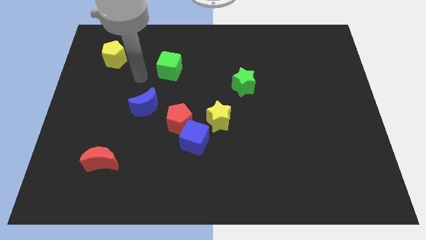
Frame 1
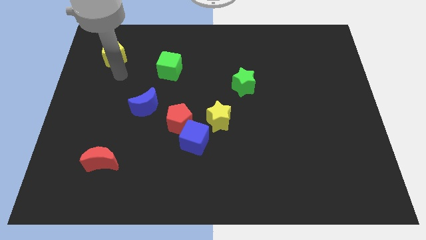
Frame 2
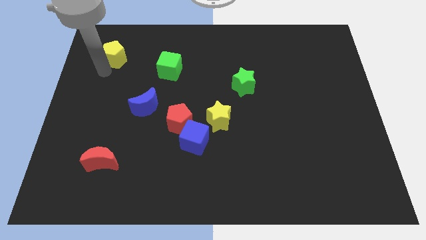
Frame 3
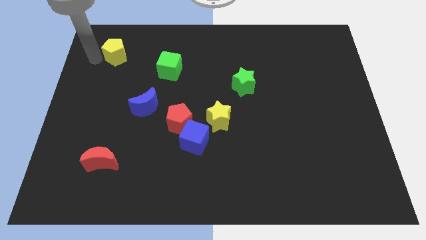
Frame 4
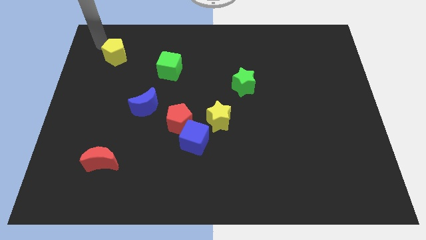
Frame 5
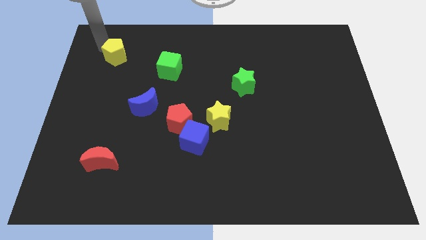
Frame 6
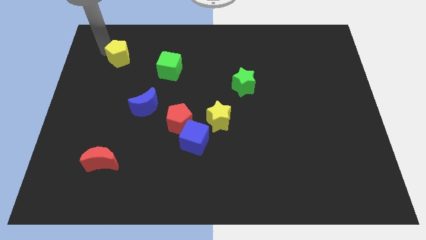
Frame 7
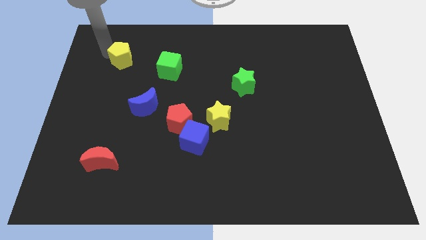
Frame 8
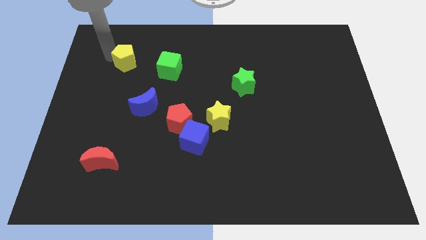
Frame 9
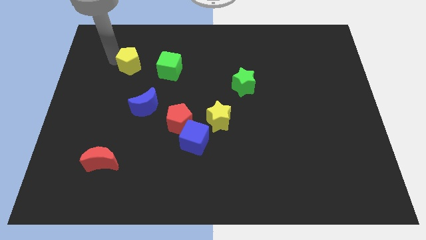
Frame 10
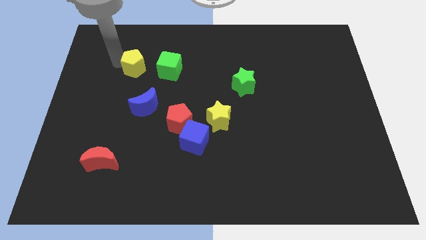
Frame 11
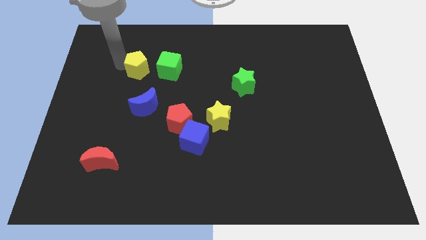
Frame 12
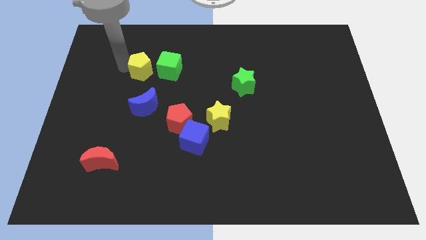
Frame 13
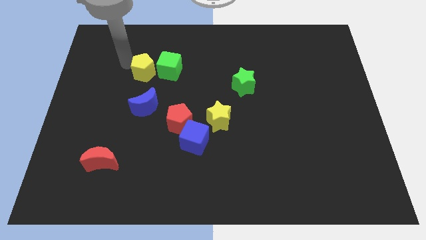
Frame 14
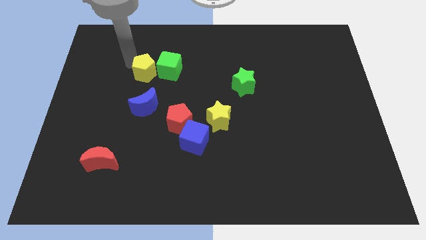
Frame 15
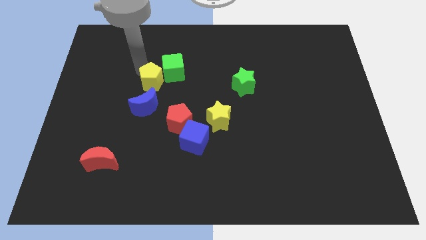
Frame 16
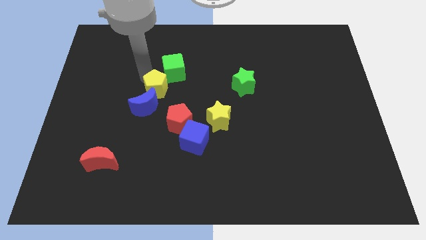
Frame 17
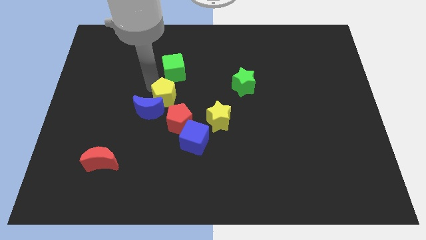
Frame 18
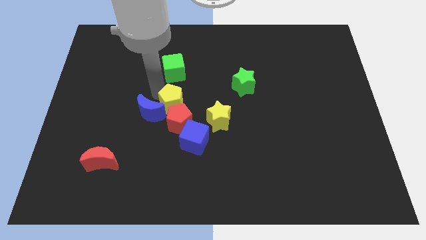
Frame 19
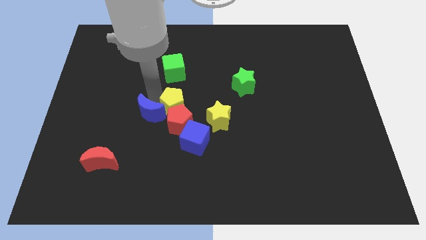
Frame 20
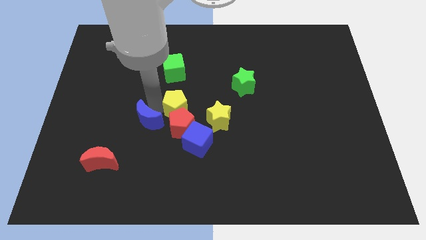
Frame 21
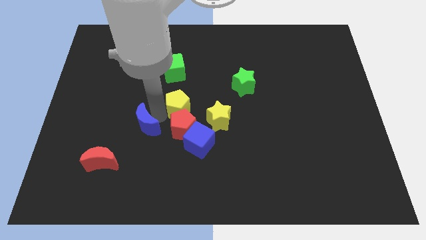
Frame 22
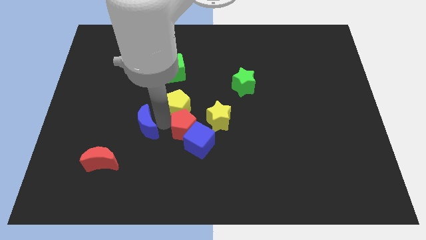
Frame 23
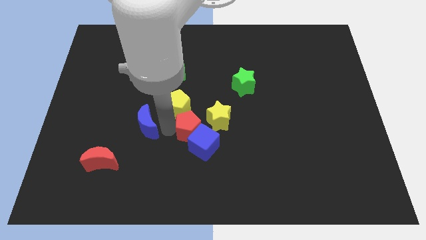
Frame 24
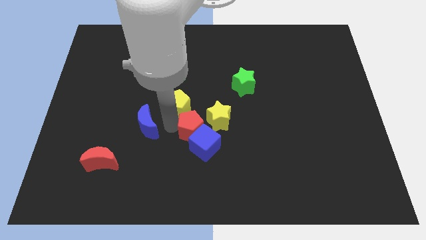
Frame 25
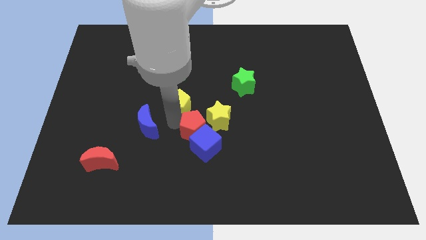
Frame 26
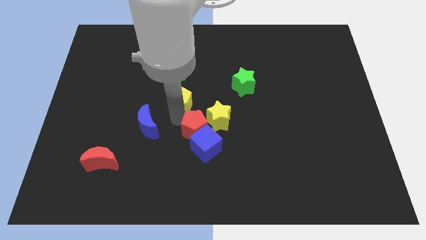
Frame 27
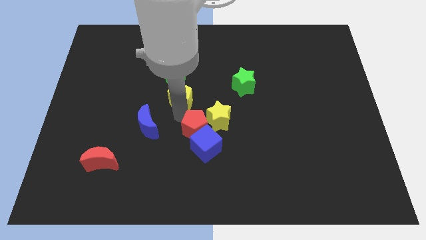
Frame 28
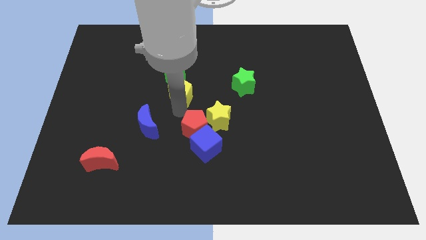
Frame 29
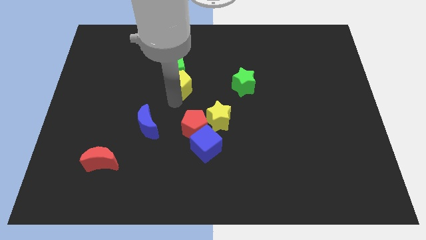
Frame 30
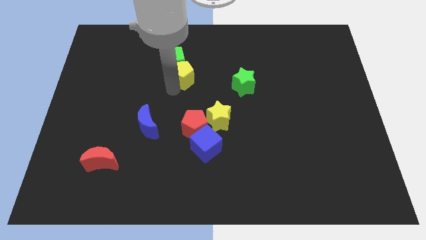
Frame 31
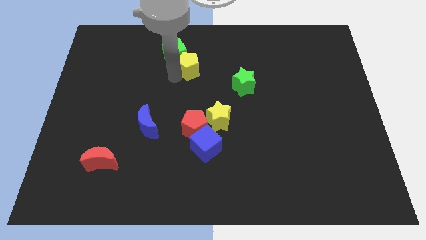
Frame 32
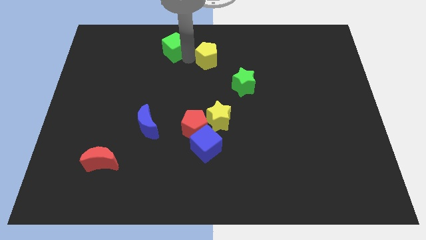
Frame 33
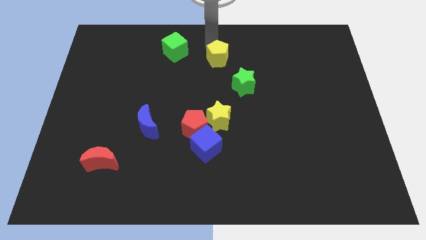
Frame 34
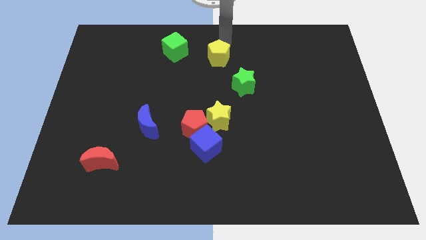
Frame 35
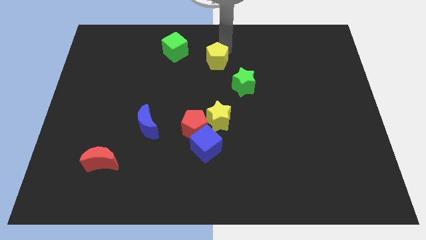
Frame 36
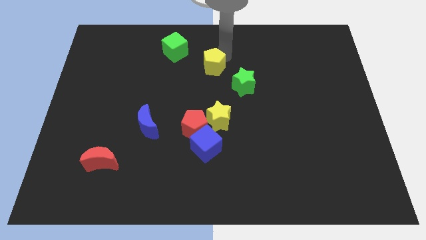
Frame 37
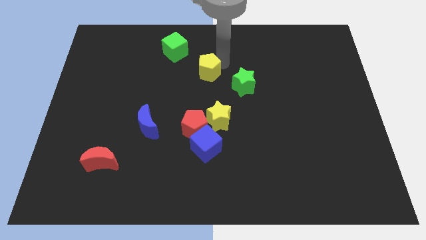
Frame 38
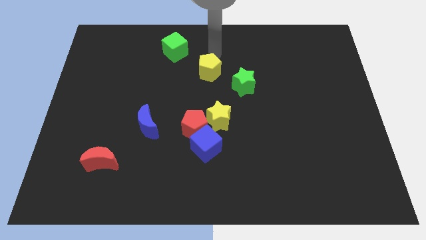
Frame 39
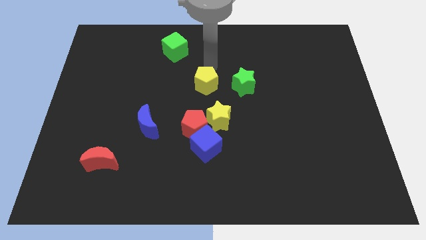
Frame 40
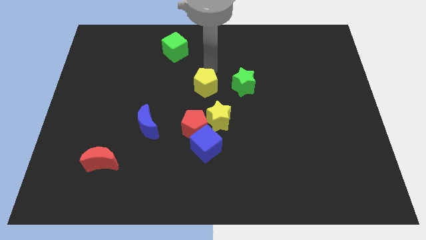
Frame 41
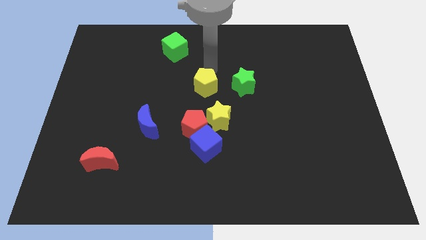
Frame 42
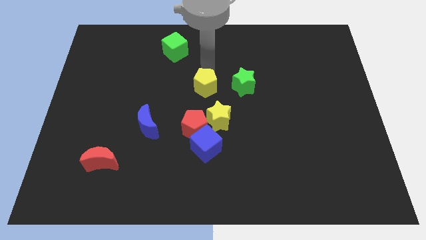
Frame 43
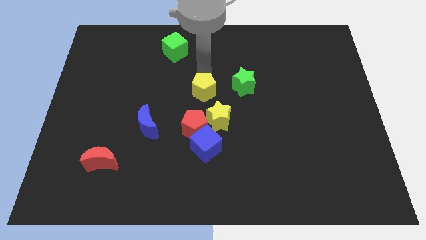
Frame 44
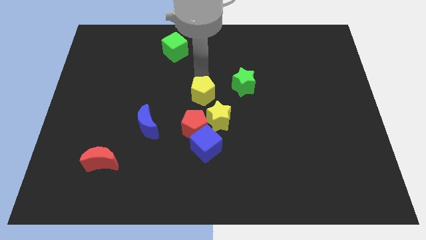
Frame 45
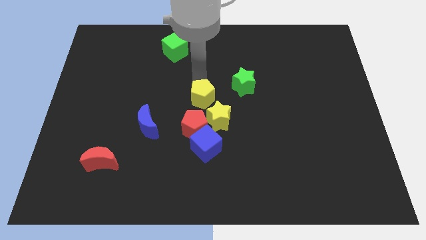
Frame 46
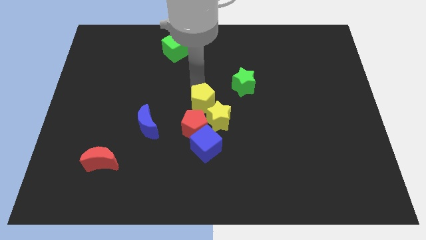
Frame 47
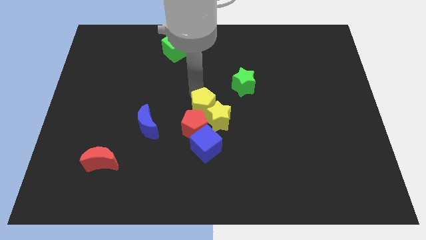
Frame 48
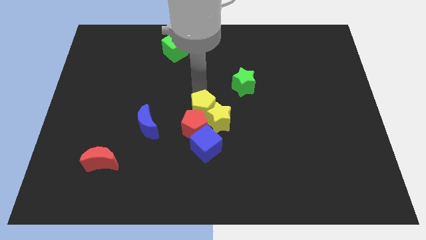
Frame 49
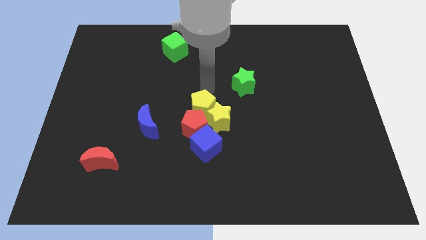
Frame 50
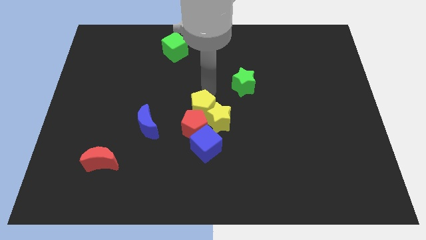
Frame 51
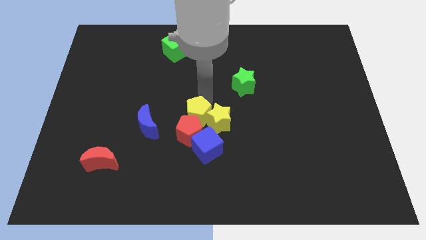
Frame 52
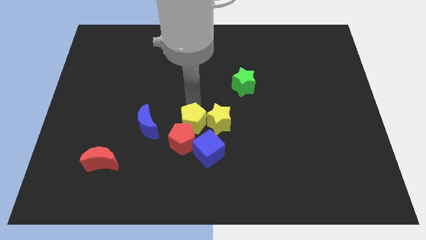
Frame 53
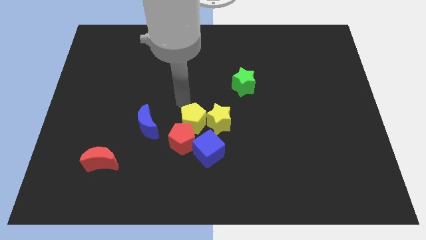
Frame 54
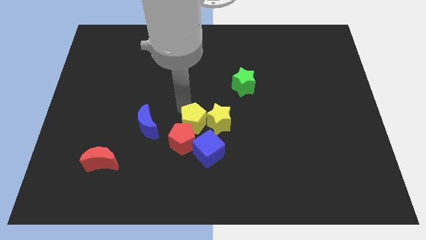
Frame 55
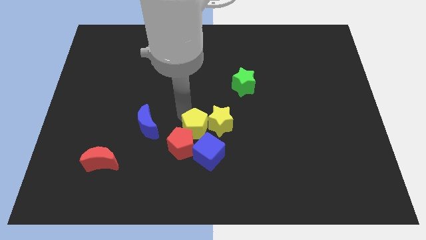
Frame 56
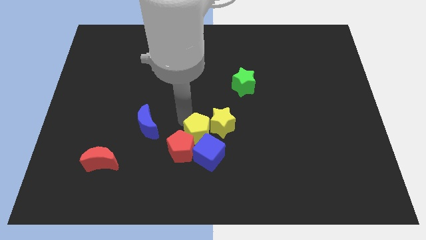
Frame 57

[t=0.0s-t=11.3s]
move the yellow pentagon to the blue cube

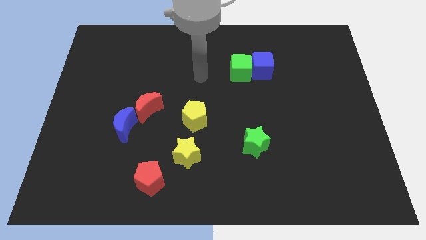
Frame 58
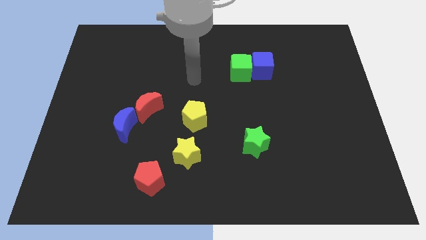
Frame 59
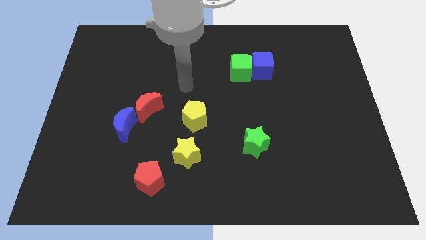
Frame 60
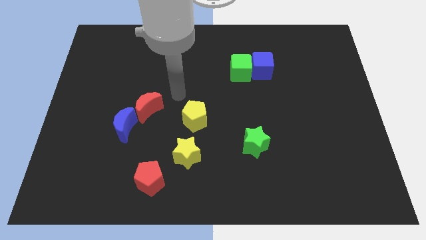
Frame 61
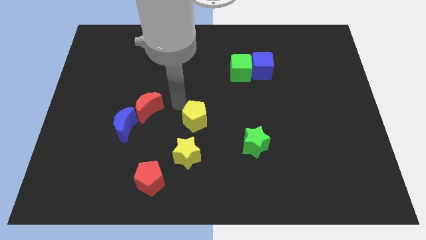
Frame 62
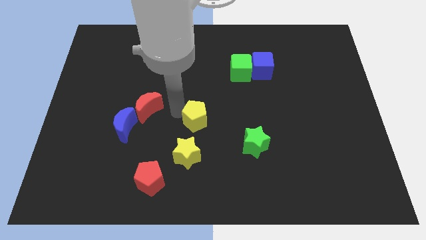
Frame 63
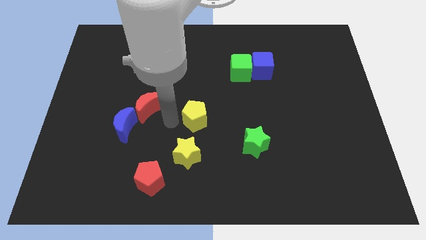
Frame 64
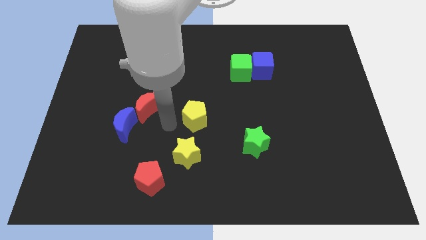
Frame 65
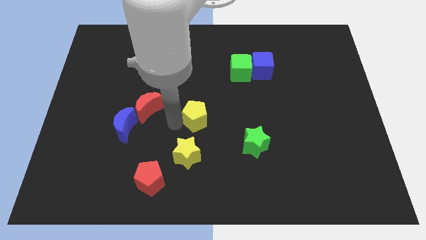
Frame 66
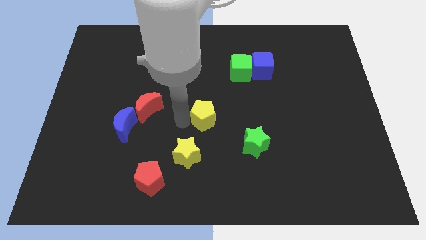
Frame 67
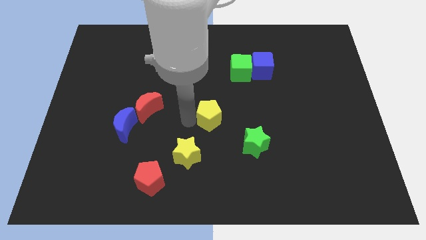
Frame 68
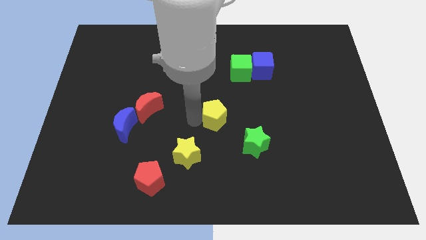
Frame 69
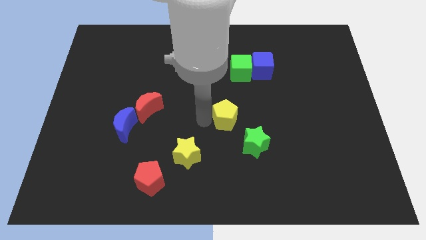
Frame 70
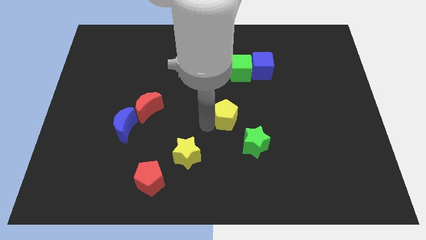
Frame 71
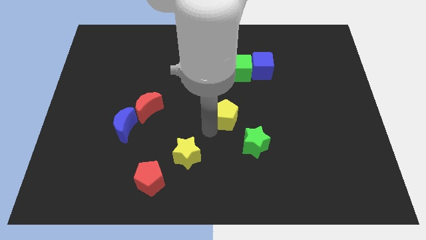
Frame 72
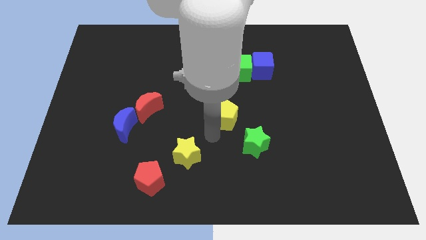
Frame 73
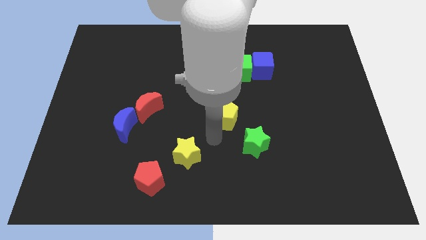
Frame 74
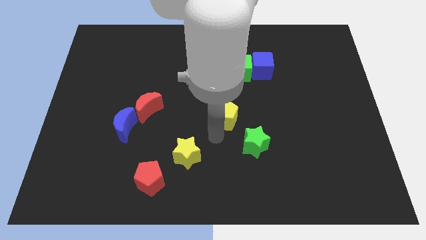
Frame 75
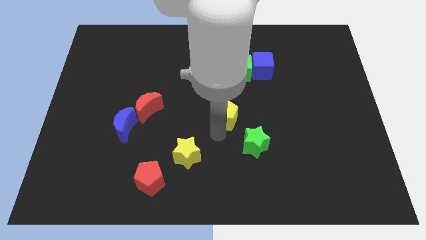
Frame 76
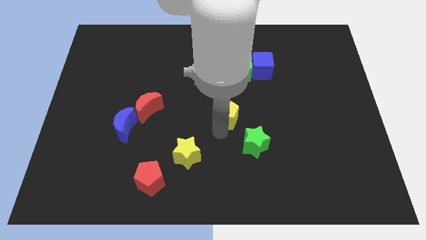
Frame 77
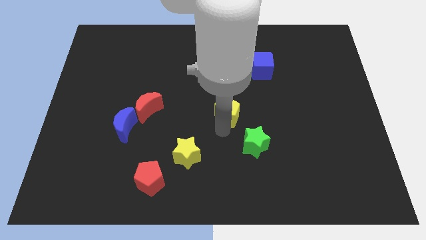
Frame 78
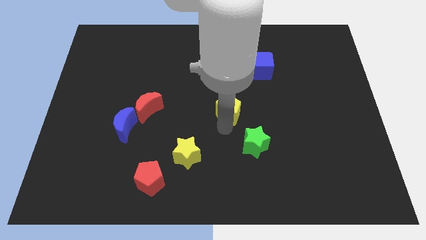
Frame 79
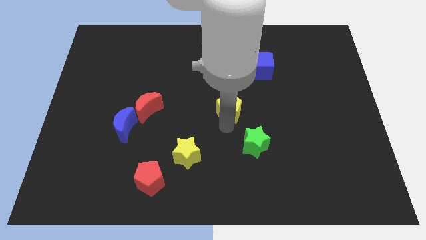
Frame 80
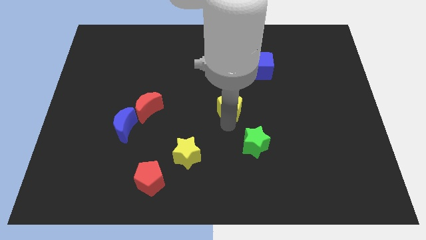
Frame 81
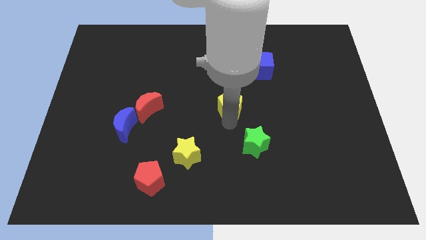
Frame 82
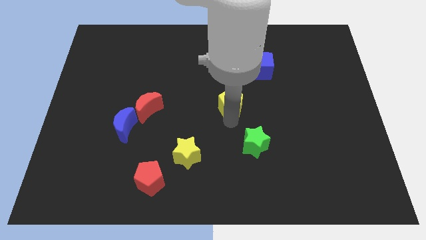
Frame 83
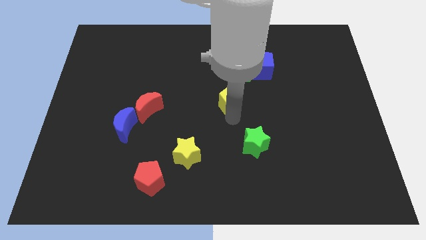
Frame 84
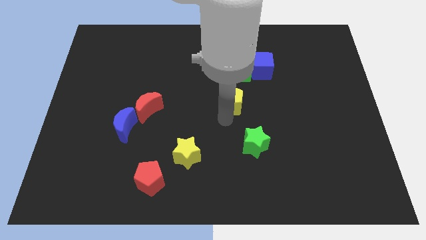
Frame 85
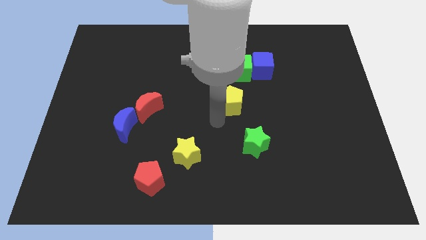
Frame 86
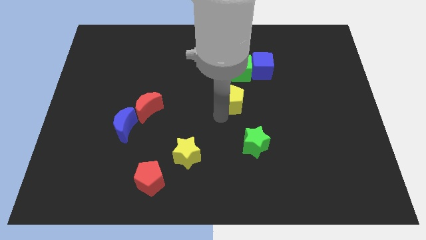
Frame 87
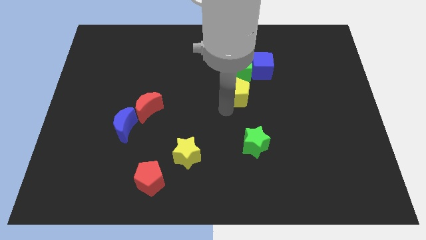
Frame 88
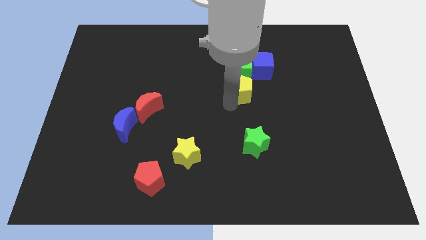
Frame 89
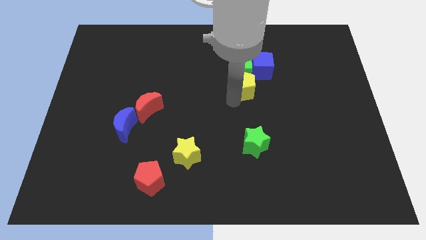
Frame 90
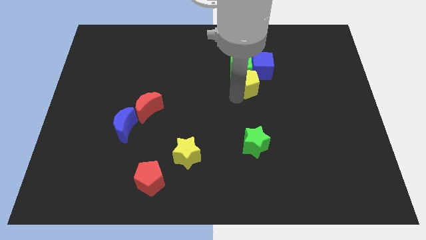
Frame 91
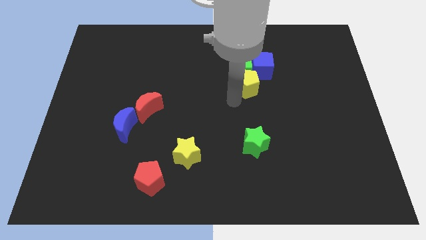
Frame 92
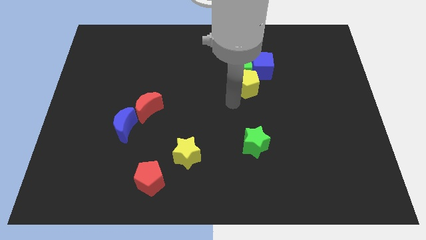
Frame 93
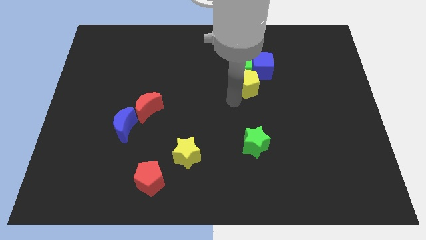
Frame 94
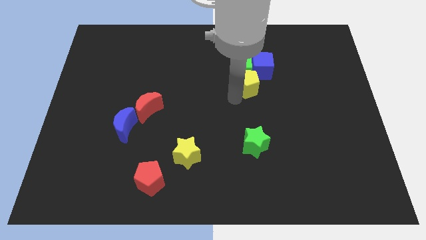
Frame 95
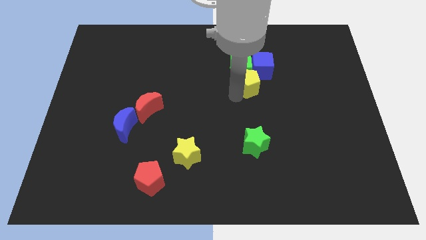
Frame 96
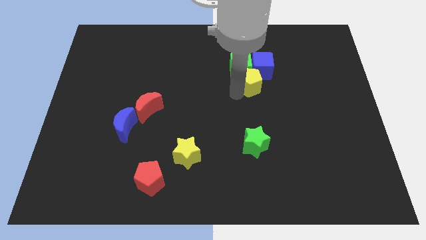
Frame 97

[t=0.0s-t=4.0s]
slide the yellow pentagon close to the blue cube
